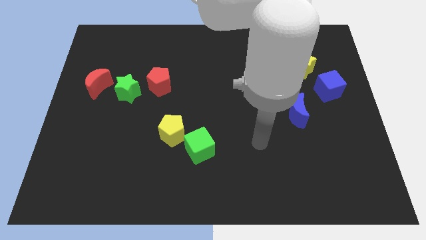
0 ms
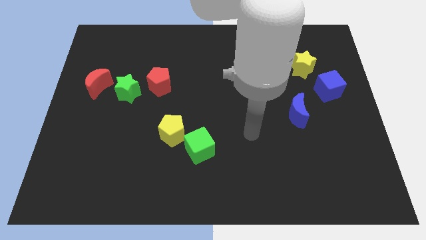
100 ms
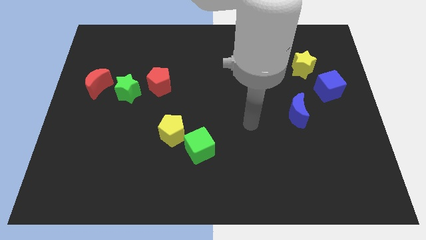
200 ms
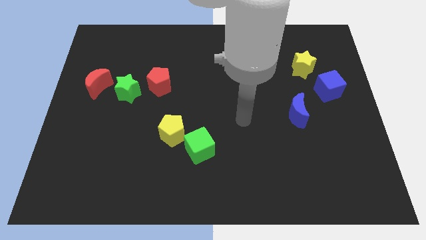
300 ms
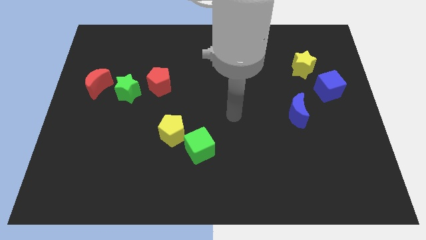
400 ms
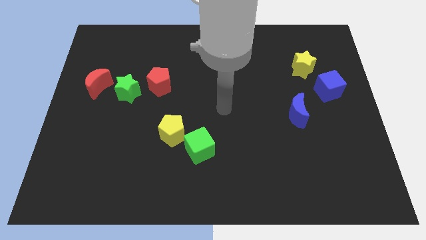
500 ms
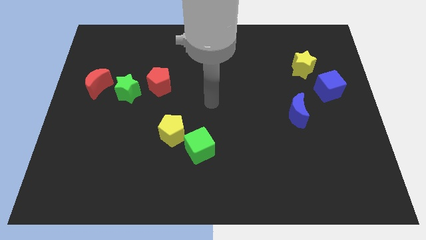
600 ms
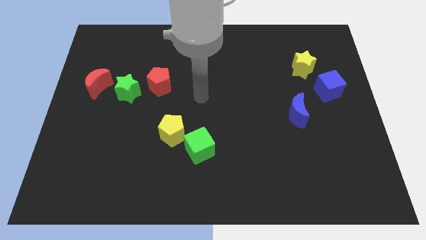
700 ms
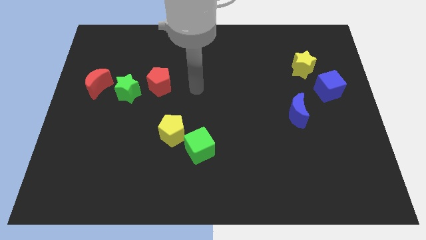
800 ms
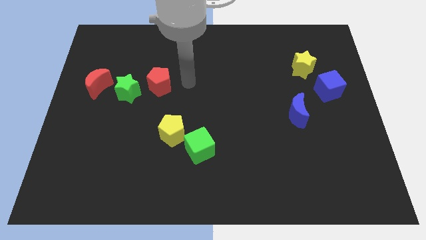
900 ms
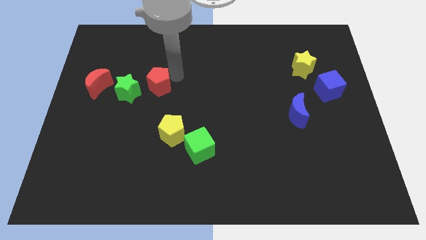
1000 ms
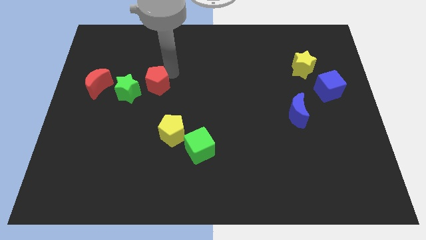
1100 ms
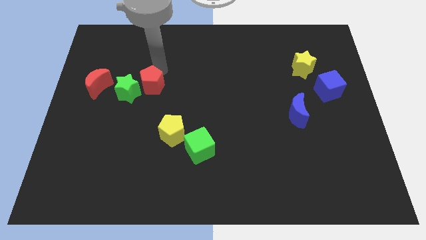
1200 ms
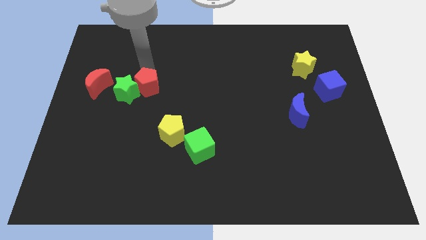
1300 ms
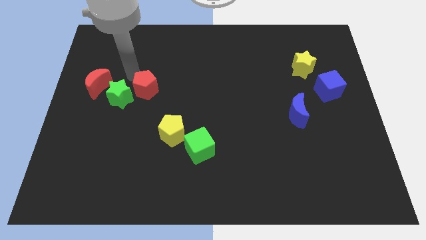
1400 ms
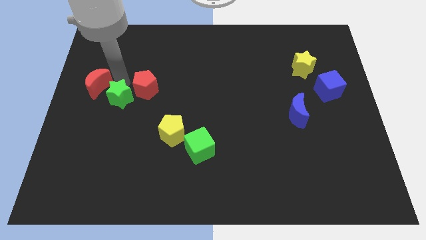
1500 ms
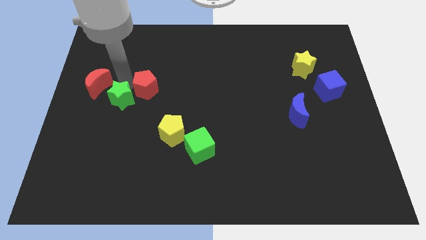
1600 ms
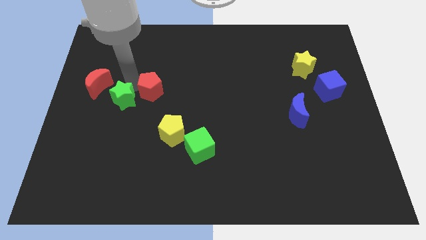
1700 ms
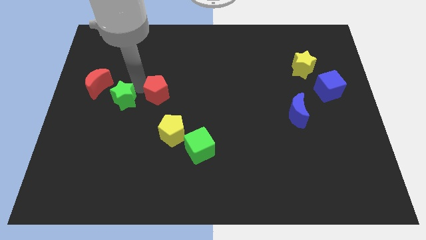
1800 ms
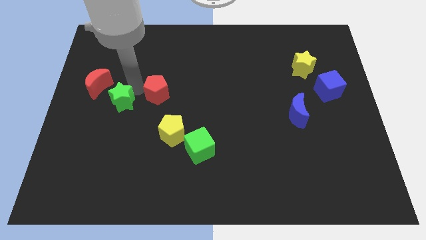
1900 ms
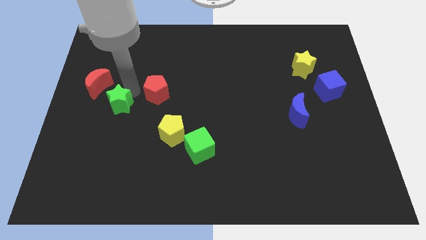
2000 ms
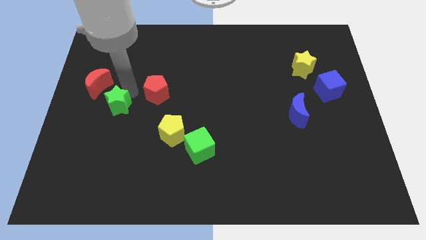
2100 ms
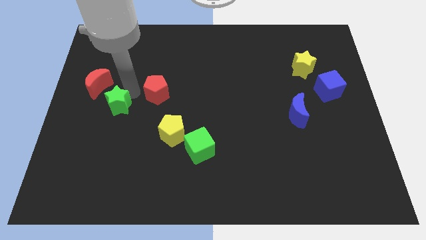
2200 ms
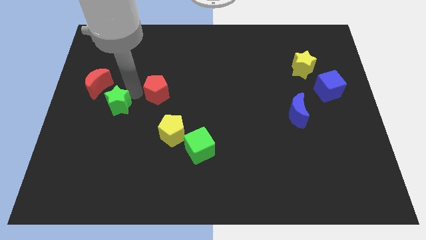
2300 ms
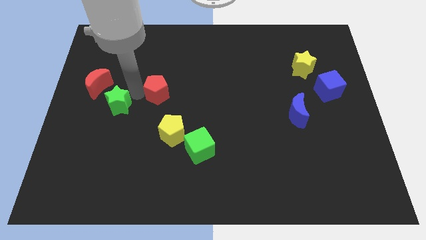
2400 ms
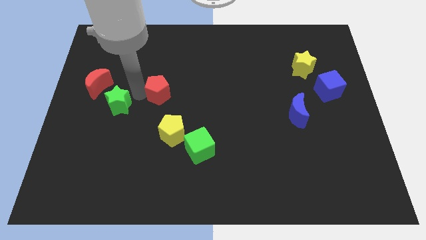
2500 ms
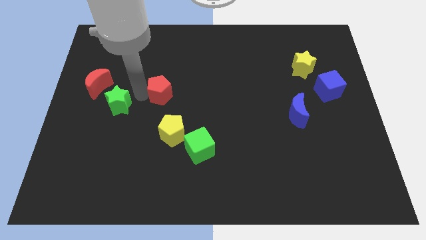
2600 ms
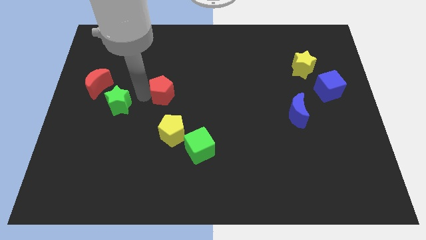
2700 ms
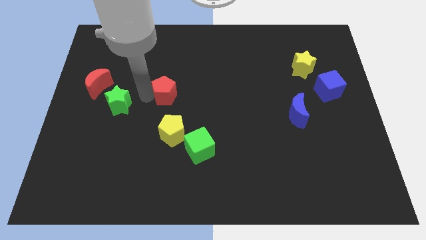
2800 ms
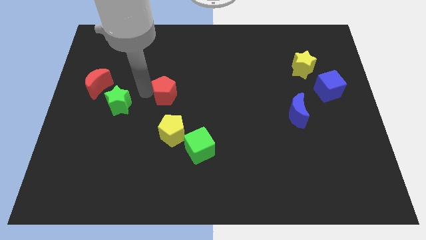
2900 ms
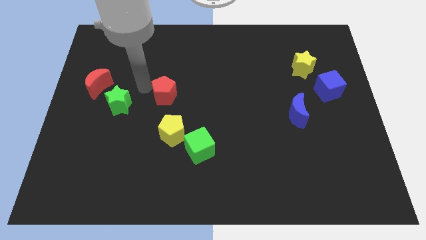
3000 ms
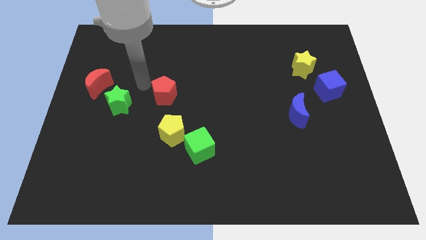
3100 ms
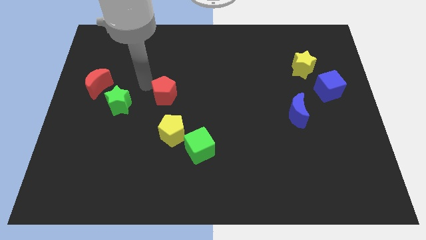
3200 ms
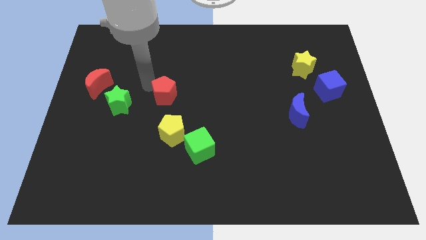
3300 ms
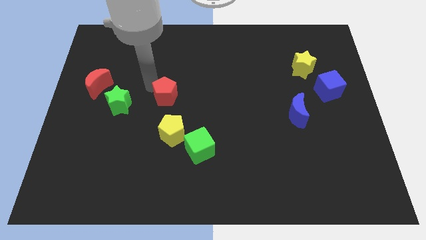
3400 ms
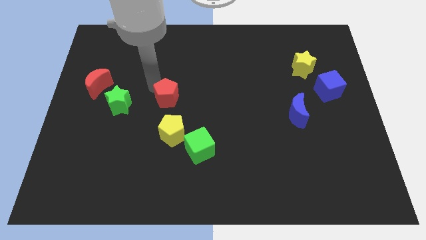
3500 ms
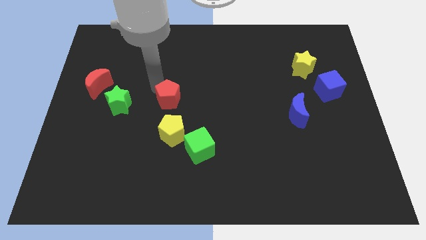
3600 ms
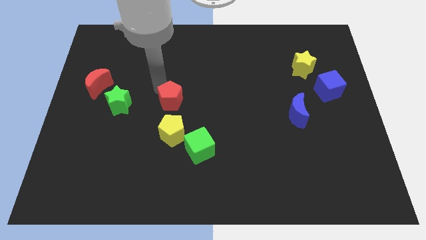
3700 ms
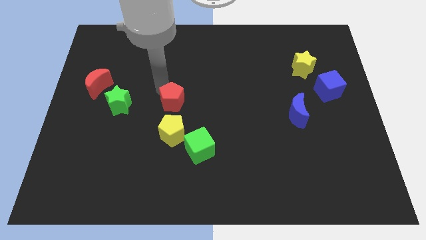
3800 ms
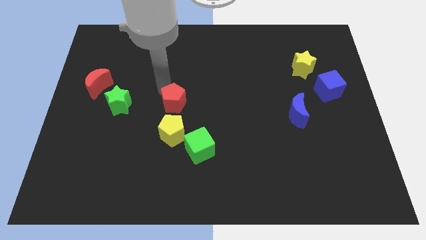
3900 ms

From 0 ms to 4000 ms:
push the red pentagon somewhat down and to the right diagonally

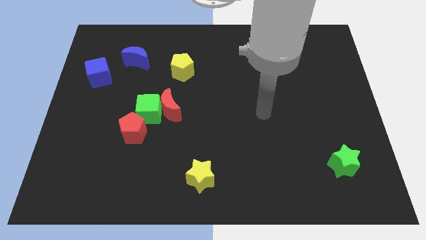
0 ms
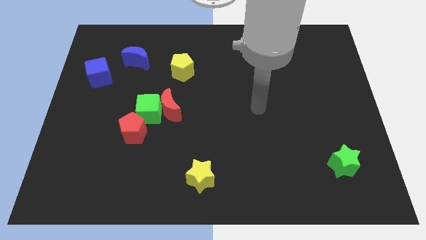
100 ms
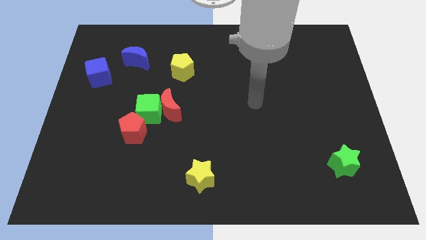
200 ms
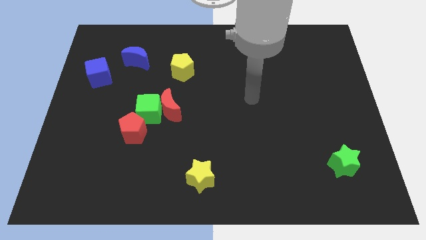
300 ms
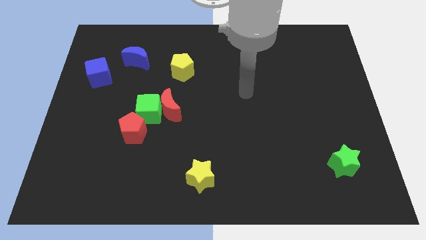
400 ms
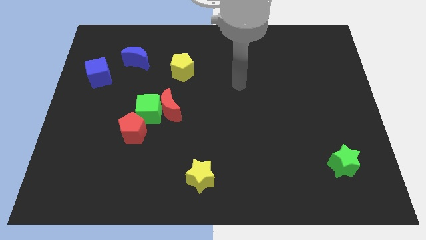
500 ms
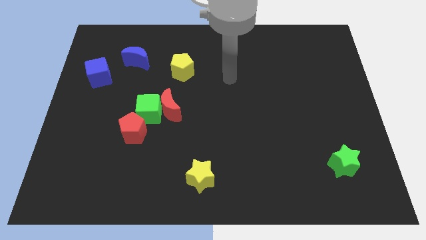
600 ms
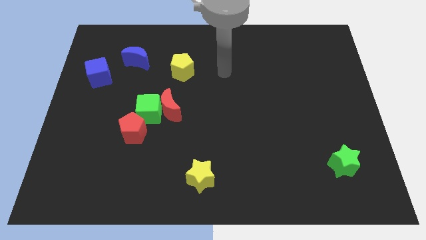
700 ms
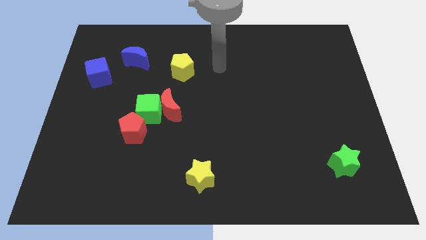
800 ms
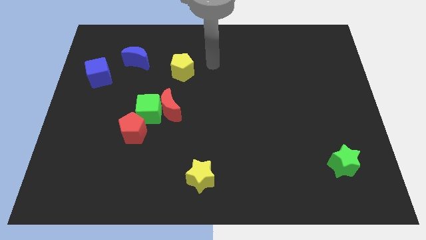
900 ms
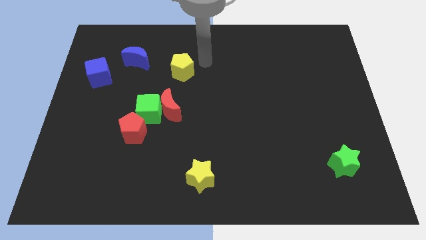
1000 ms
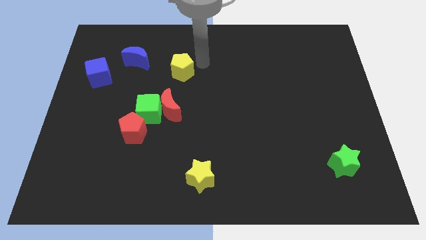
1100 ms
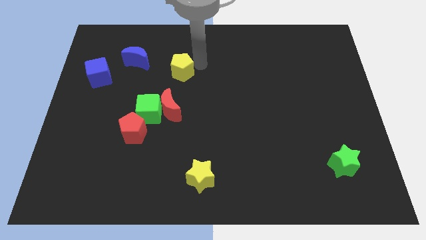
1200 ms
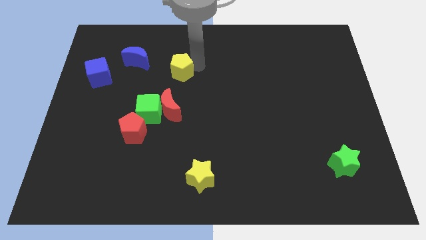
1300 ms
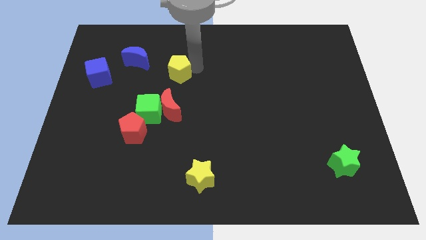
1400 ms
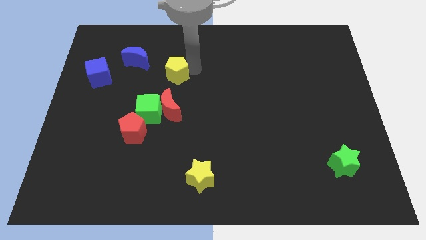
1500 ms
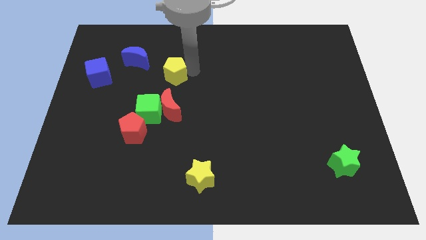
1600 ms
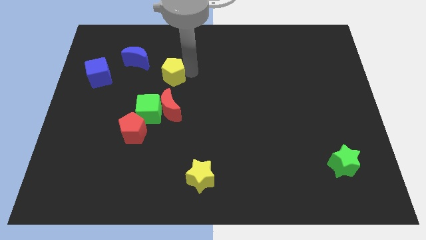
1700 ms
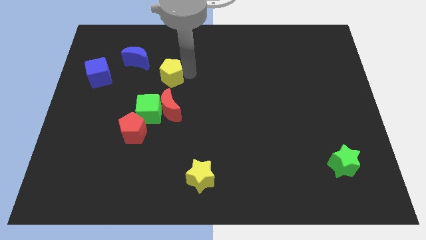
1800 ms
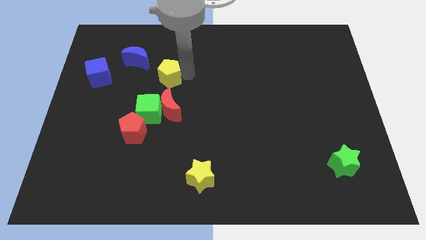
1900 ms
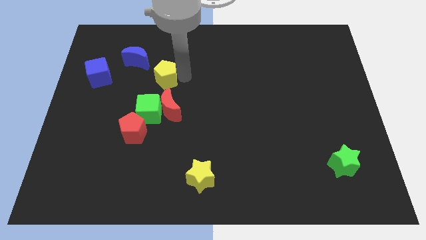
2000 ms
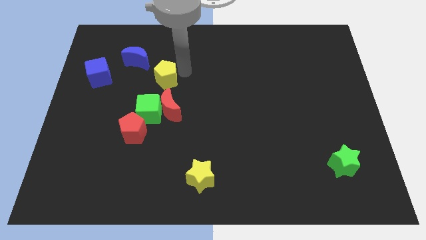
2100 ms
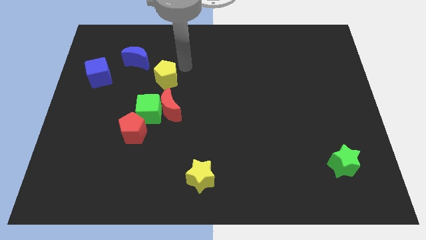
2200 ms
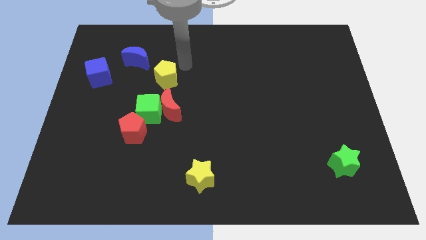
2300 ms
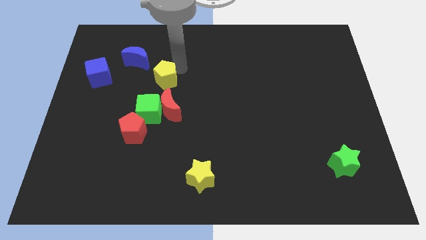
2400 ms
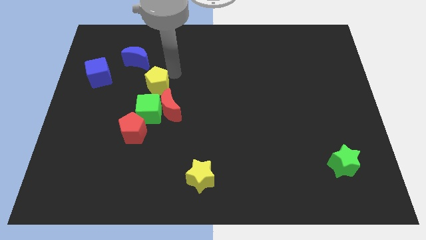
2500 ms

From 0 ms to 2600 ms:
slide the yellow pentagon downwards and to the left slightly

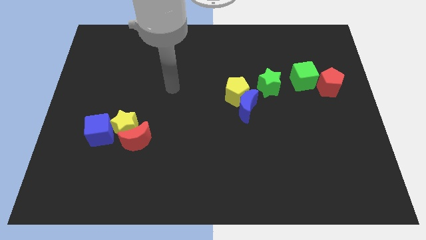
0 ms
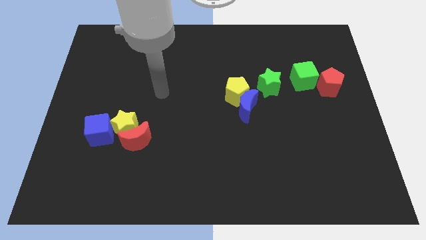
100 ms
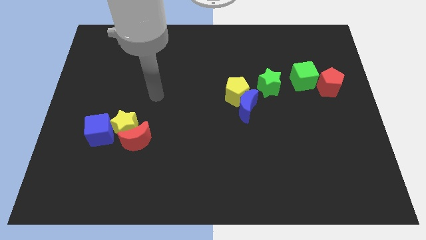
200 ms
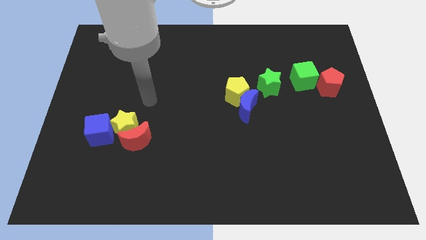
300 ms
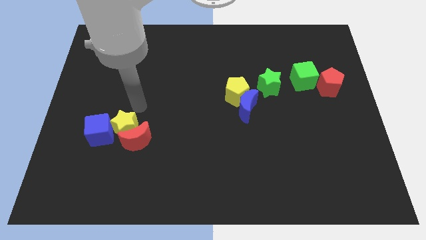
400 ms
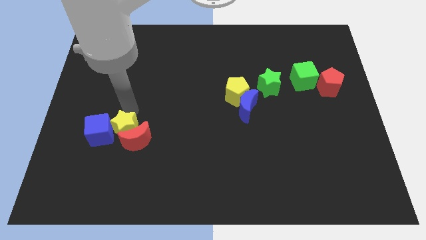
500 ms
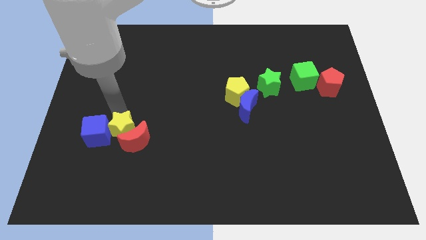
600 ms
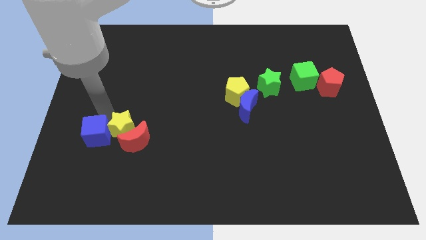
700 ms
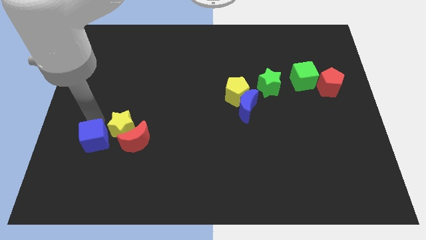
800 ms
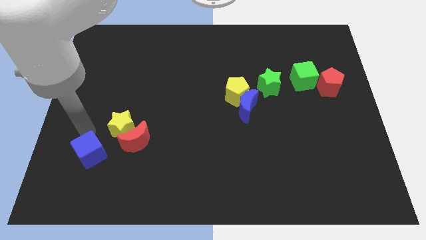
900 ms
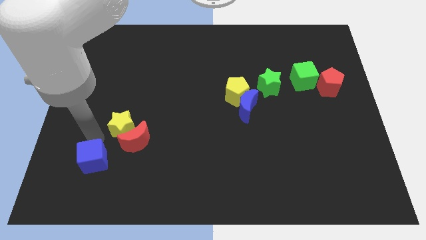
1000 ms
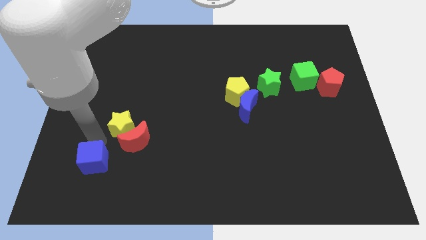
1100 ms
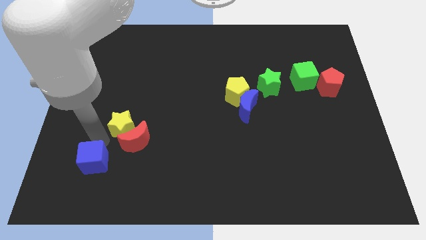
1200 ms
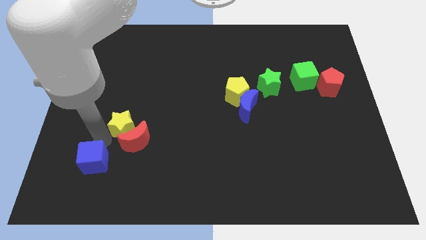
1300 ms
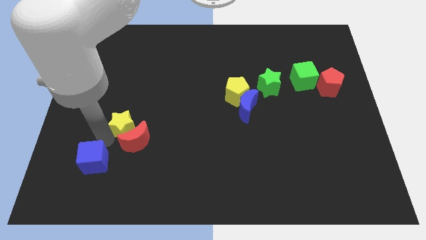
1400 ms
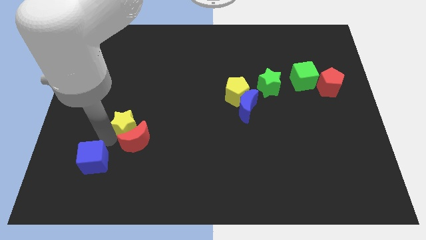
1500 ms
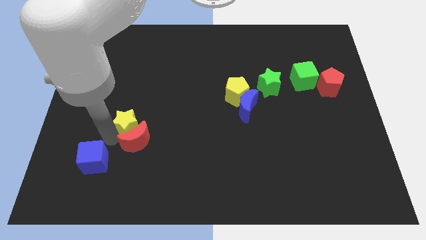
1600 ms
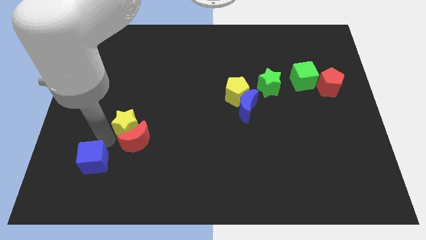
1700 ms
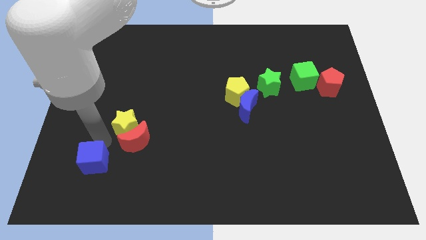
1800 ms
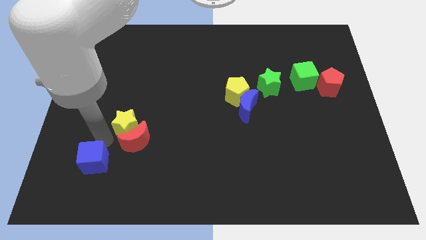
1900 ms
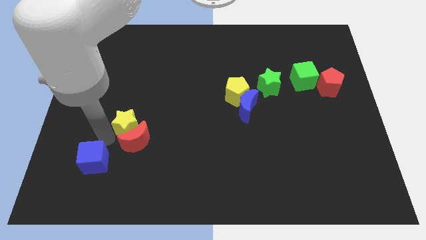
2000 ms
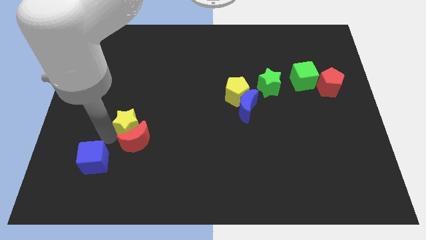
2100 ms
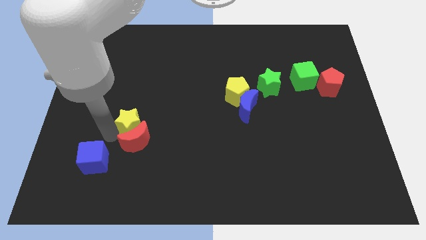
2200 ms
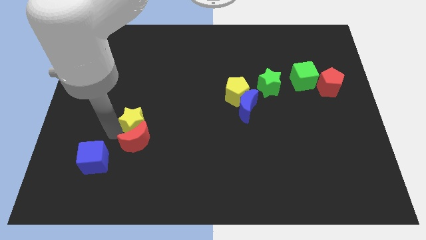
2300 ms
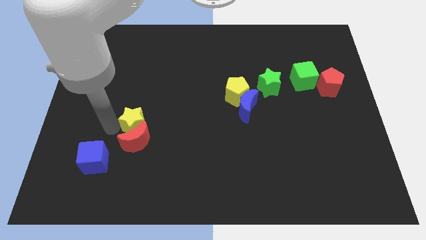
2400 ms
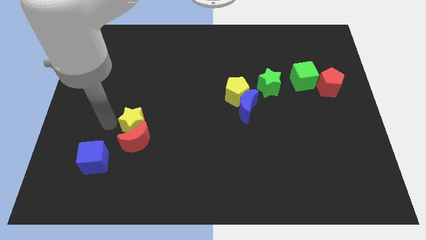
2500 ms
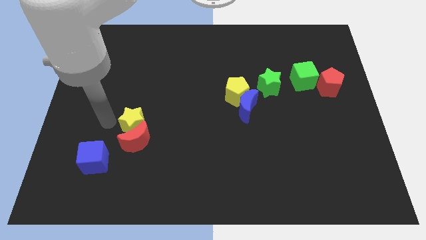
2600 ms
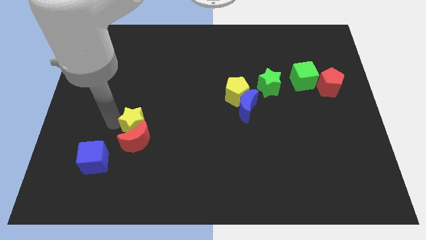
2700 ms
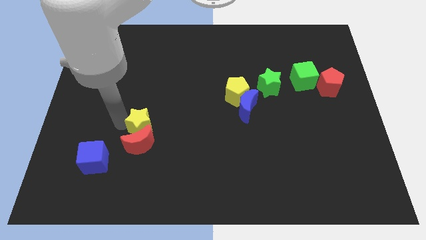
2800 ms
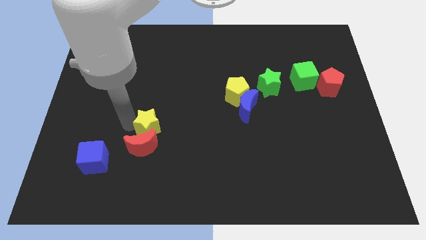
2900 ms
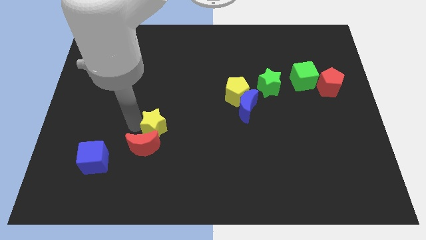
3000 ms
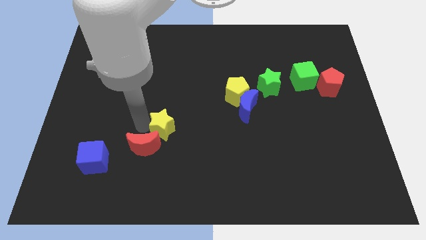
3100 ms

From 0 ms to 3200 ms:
move the yellow star to the right a bit
